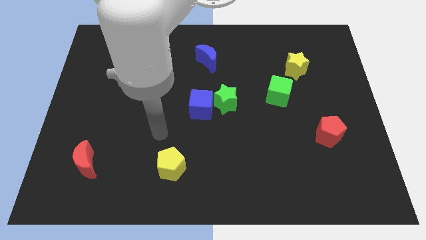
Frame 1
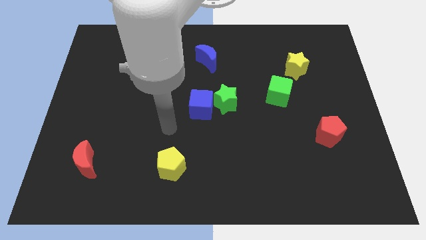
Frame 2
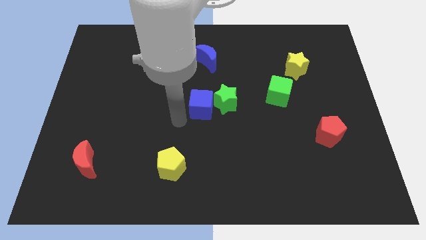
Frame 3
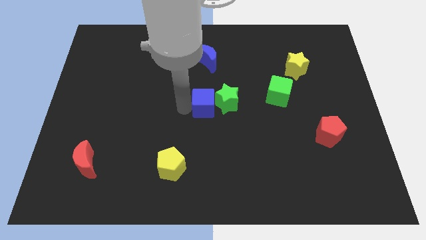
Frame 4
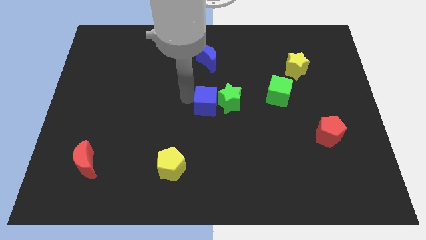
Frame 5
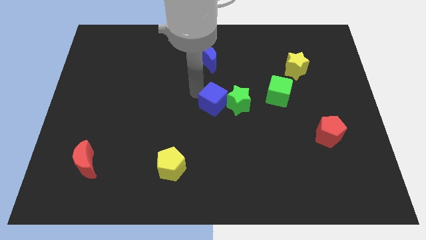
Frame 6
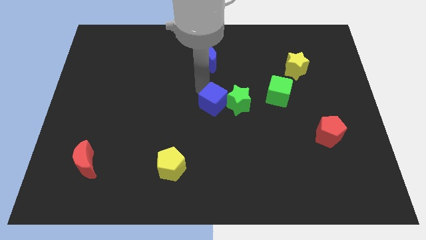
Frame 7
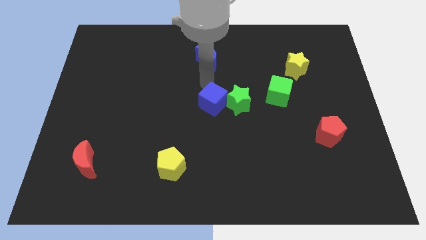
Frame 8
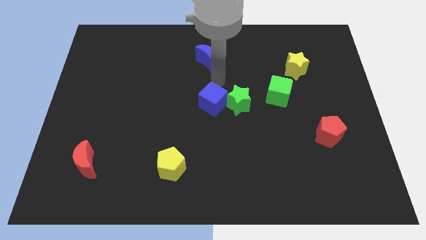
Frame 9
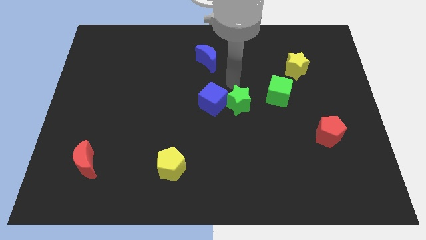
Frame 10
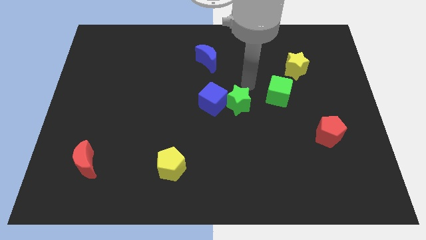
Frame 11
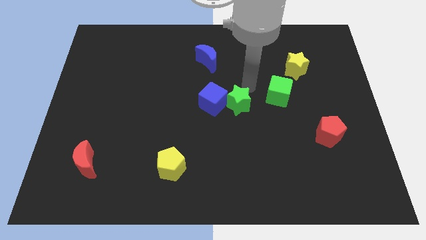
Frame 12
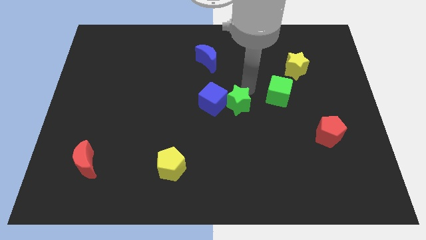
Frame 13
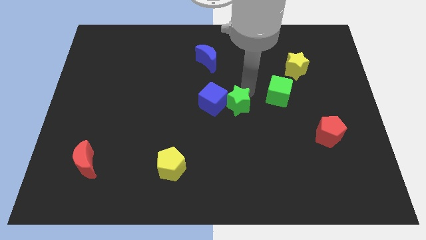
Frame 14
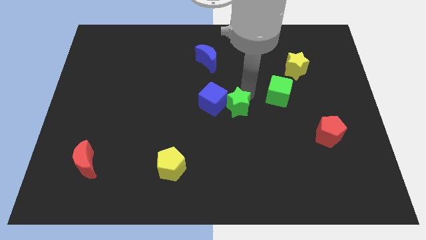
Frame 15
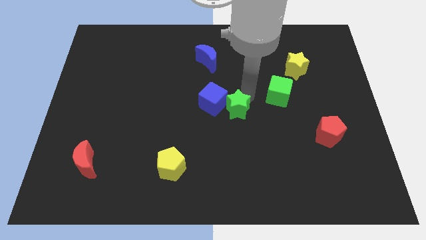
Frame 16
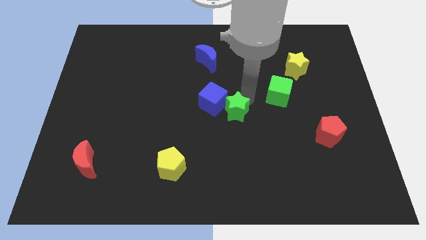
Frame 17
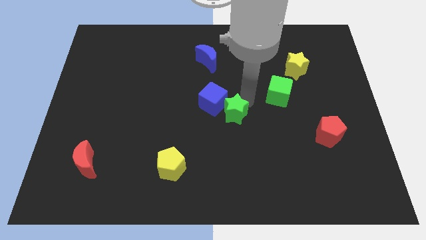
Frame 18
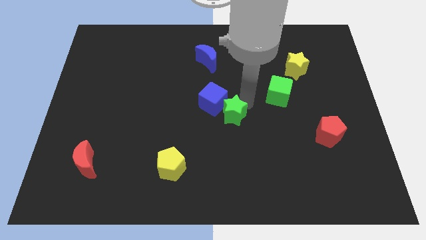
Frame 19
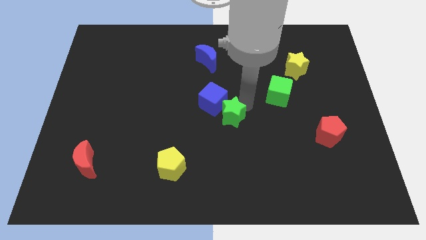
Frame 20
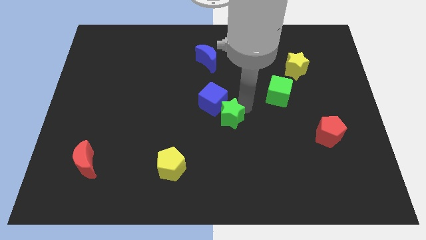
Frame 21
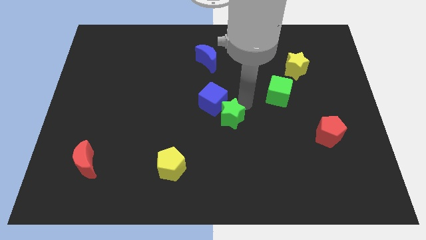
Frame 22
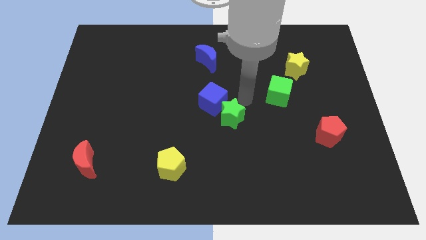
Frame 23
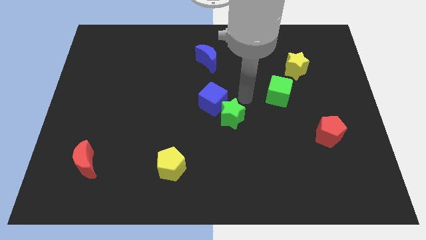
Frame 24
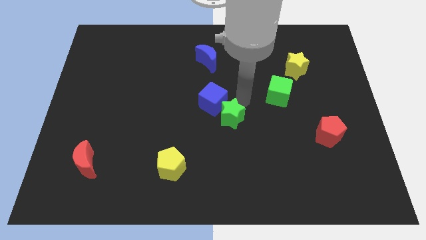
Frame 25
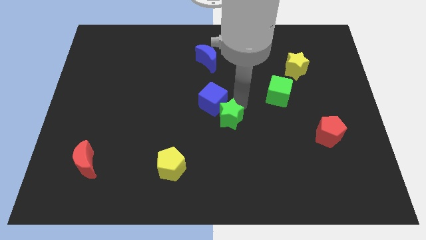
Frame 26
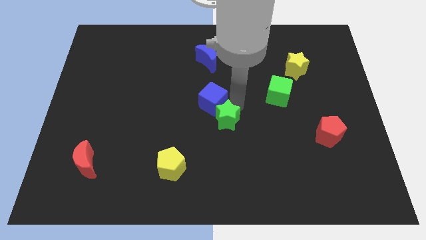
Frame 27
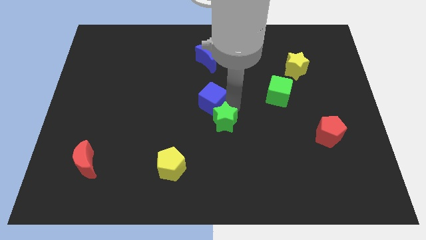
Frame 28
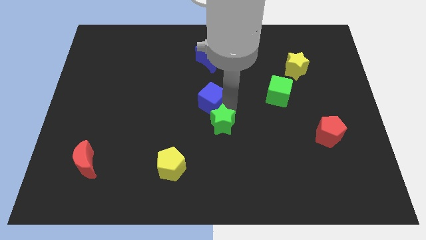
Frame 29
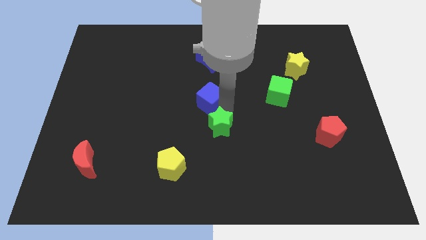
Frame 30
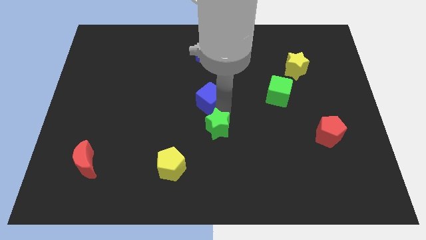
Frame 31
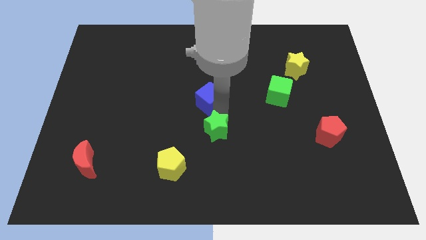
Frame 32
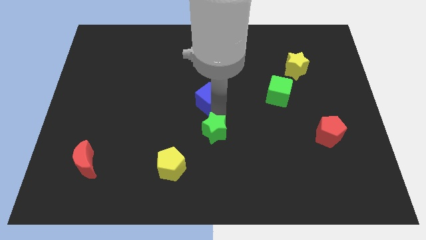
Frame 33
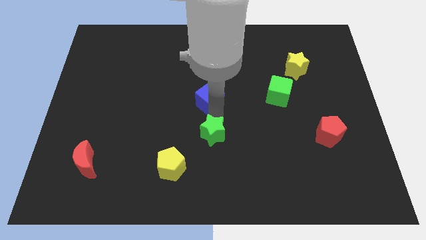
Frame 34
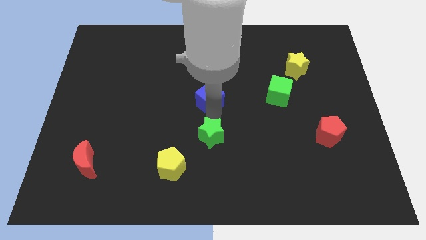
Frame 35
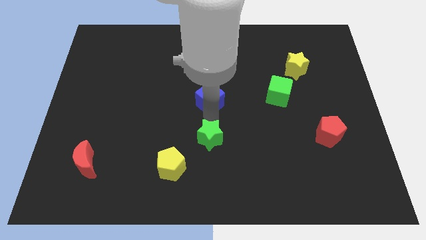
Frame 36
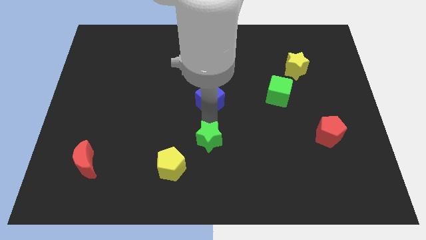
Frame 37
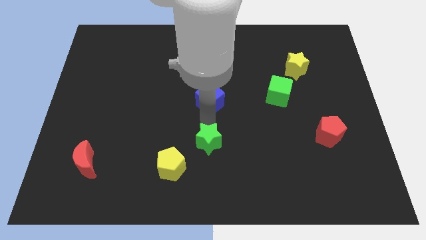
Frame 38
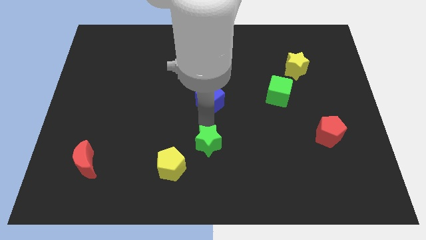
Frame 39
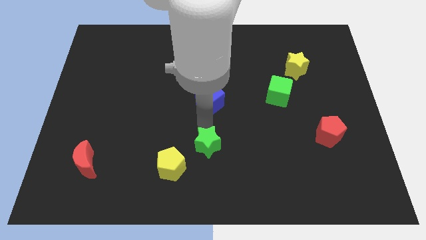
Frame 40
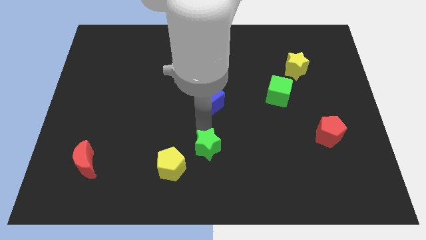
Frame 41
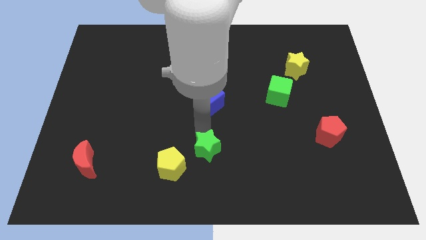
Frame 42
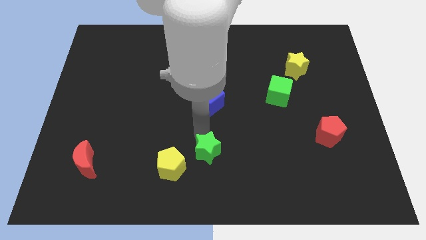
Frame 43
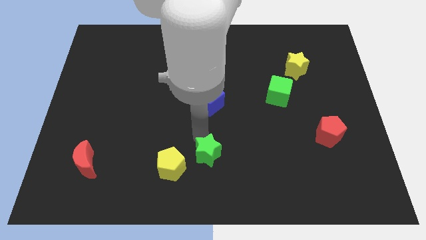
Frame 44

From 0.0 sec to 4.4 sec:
push the green star to the bottom side

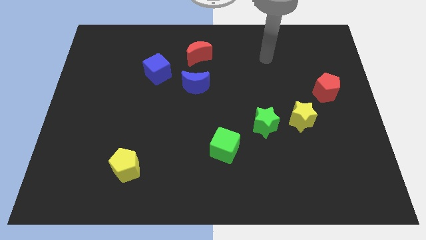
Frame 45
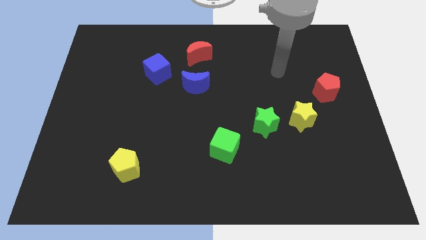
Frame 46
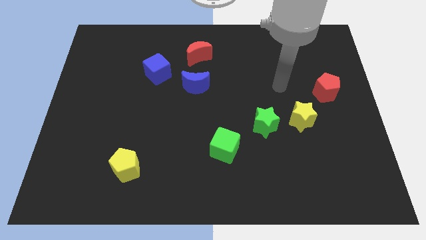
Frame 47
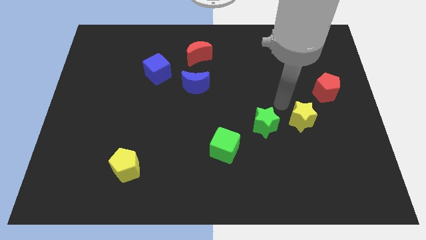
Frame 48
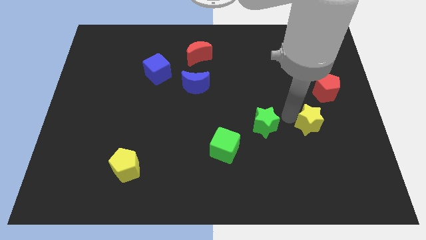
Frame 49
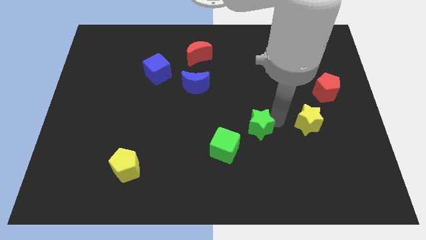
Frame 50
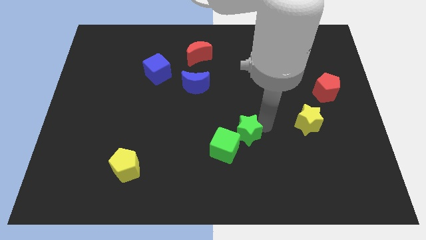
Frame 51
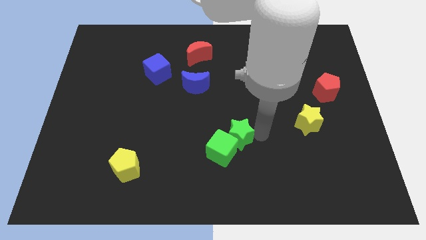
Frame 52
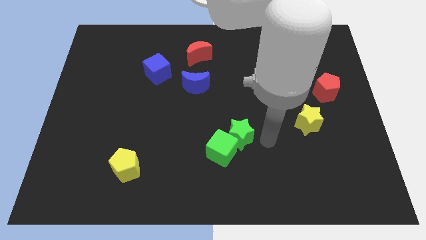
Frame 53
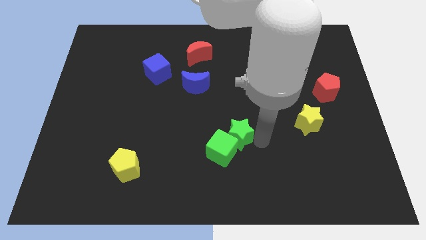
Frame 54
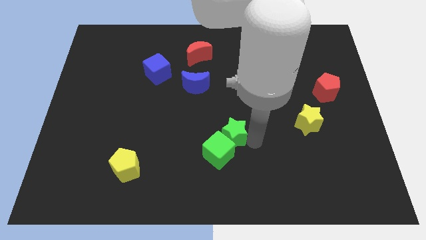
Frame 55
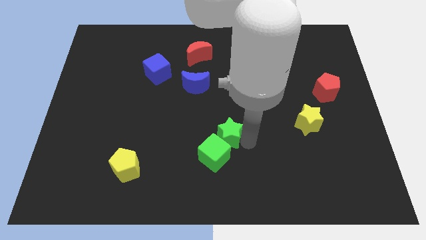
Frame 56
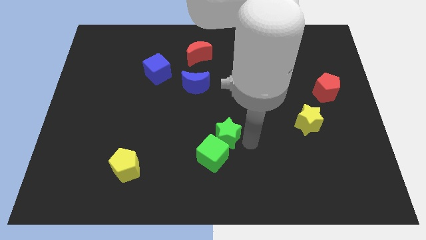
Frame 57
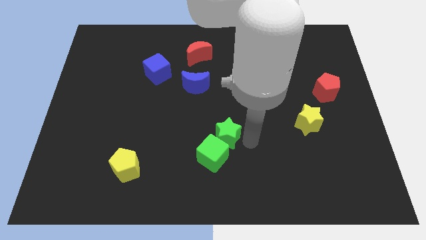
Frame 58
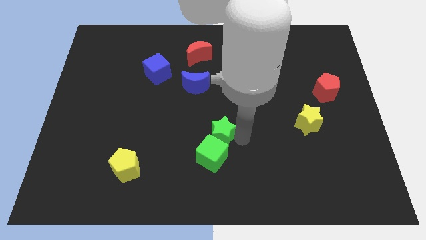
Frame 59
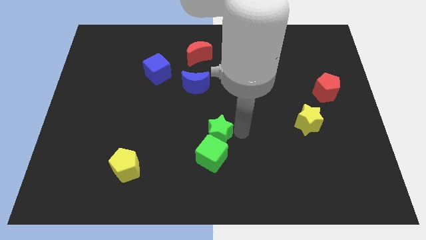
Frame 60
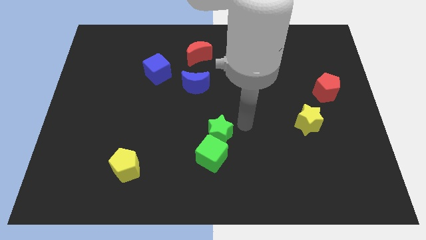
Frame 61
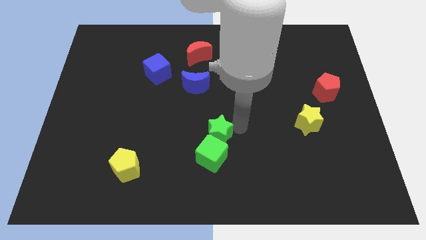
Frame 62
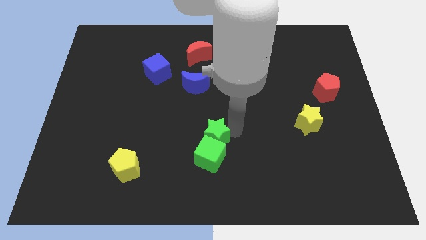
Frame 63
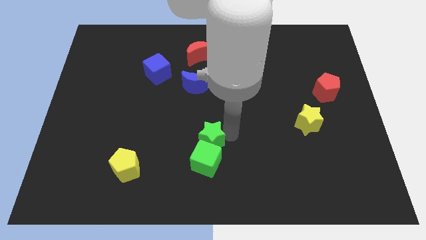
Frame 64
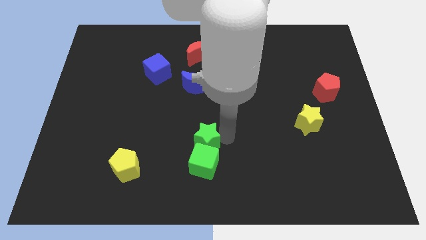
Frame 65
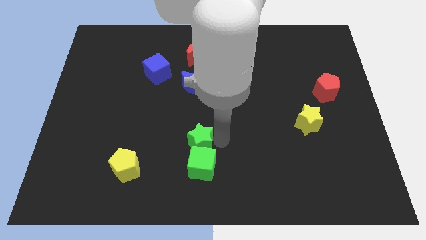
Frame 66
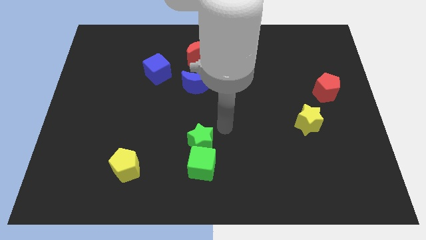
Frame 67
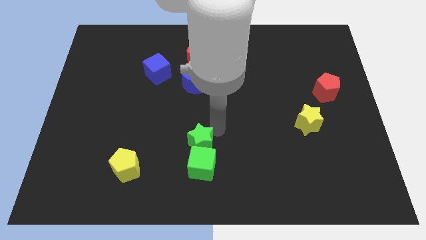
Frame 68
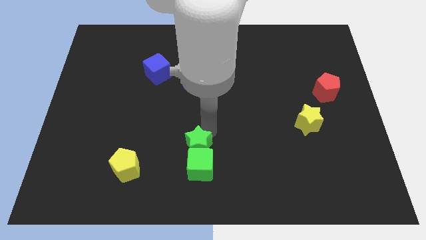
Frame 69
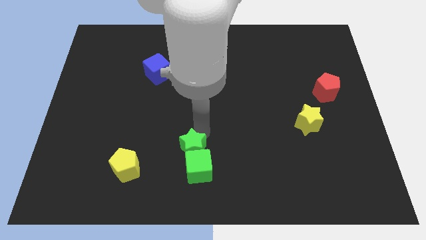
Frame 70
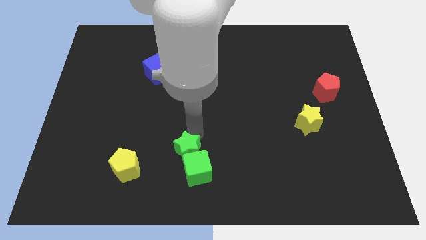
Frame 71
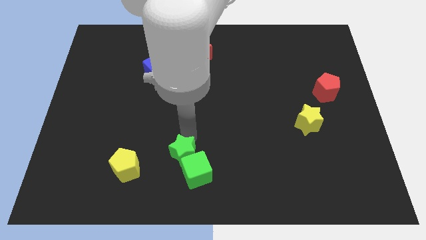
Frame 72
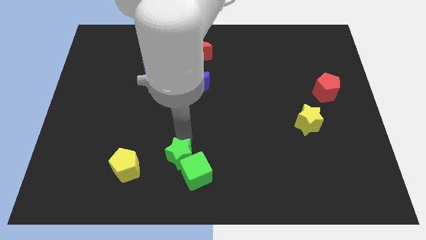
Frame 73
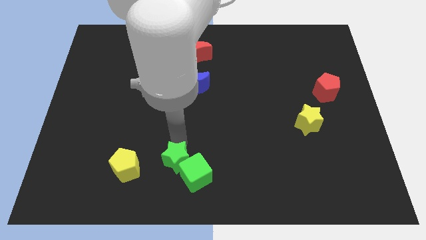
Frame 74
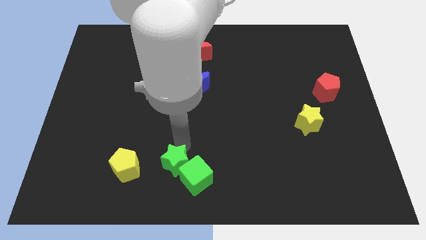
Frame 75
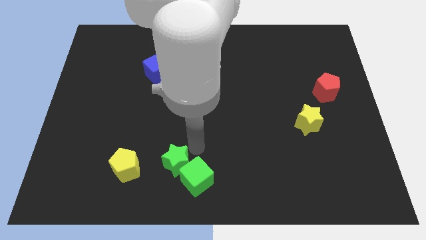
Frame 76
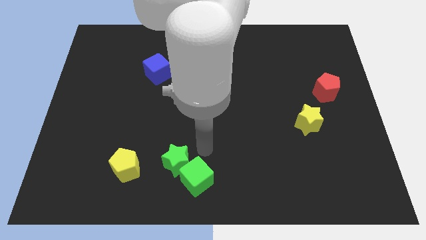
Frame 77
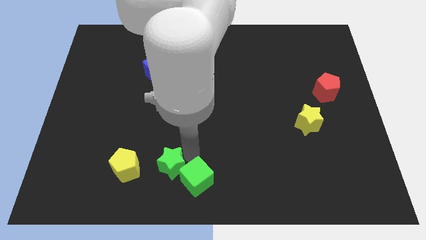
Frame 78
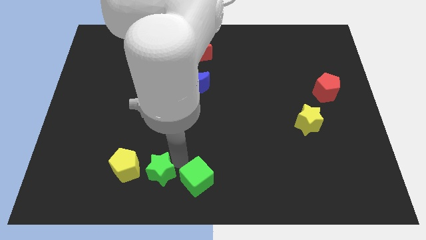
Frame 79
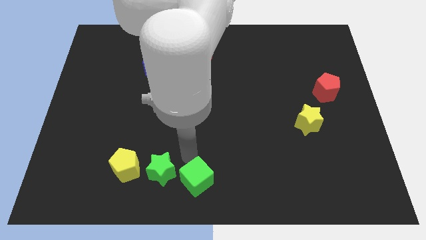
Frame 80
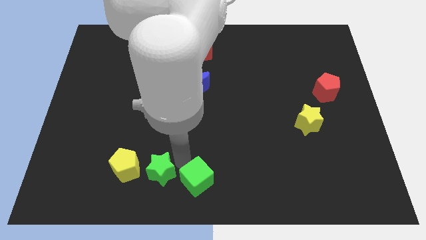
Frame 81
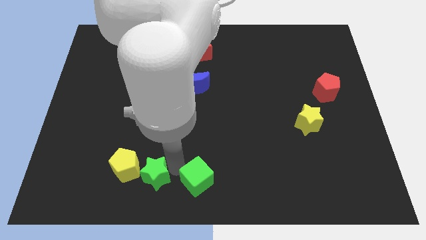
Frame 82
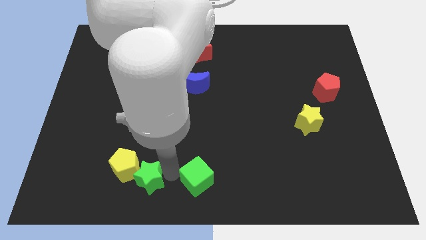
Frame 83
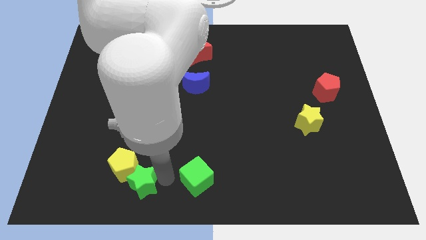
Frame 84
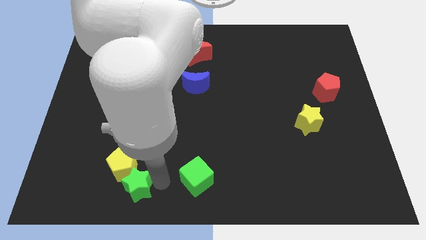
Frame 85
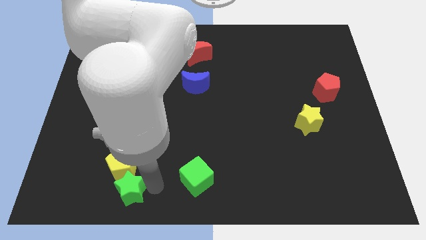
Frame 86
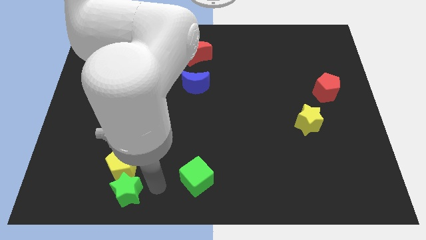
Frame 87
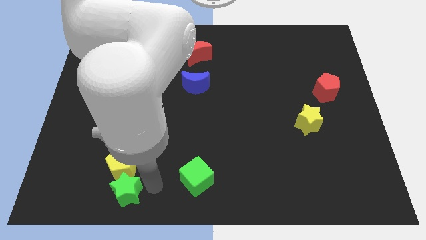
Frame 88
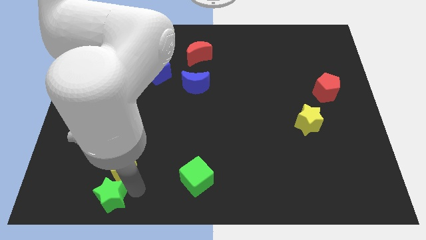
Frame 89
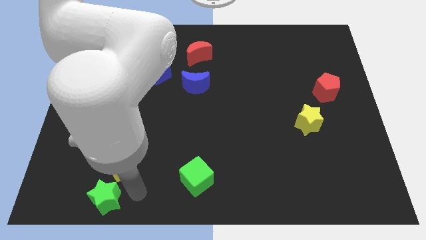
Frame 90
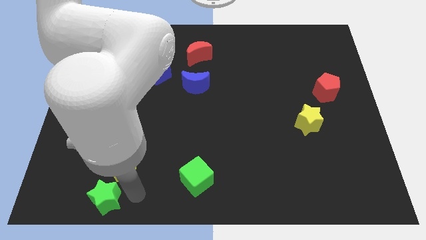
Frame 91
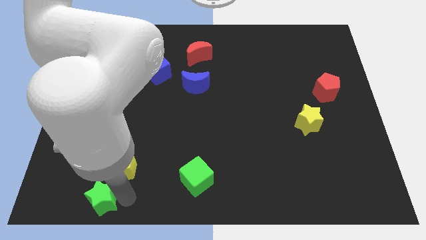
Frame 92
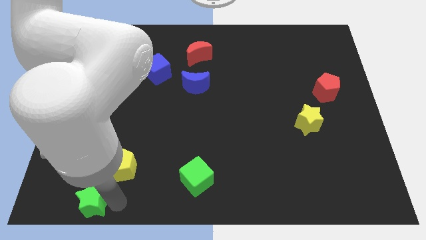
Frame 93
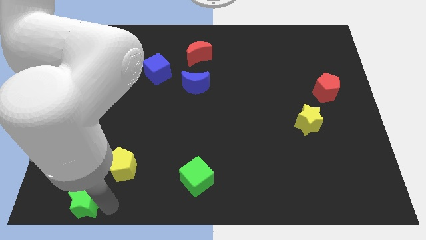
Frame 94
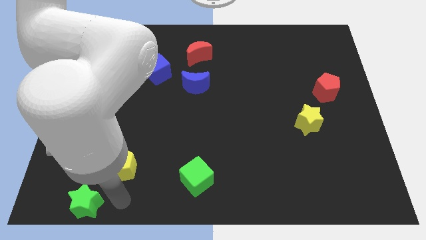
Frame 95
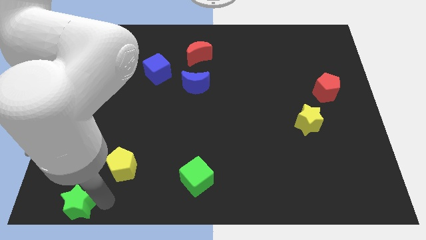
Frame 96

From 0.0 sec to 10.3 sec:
move the green star to the bottom left
